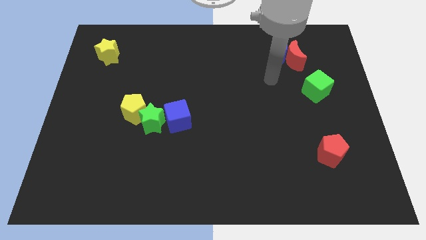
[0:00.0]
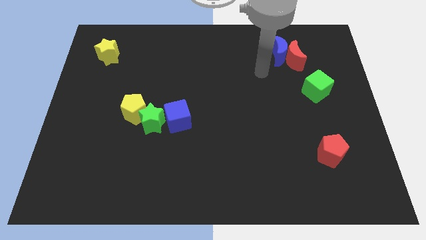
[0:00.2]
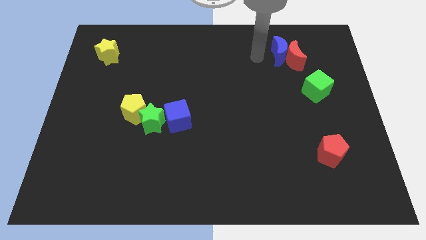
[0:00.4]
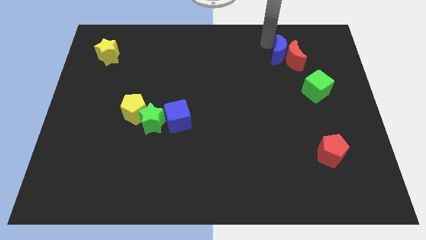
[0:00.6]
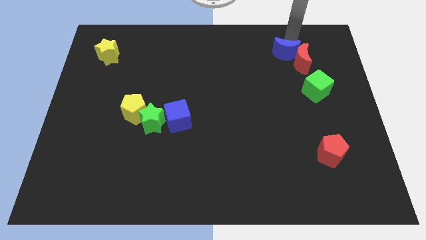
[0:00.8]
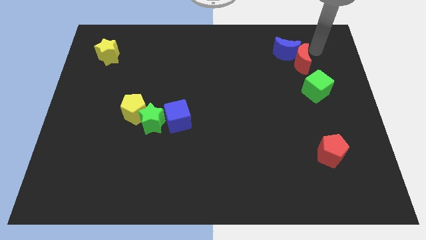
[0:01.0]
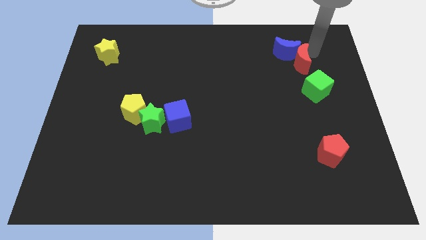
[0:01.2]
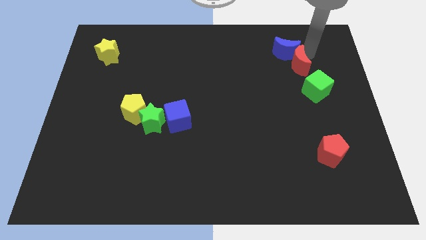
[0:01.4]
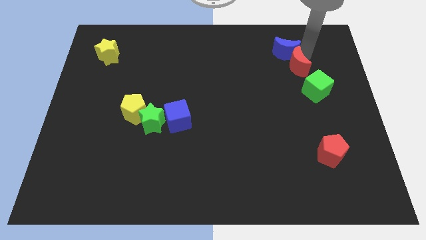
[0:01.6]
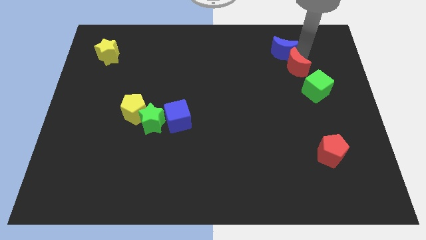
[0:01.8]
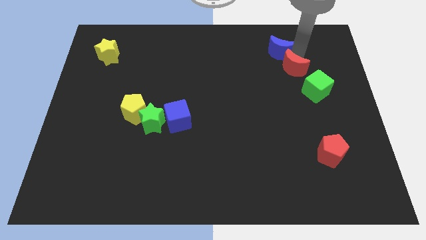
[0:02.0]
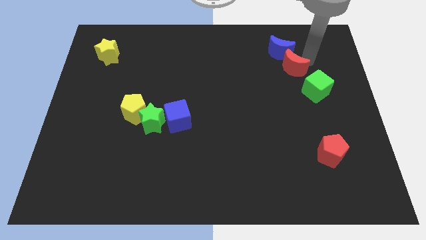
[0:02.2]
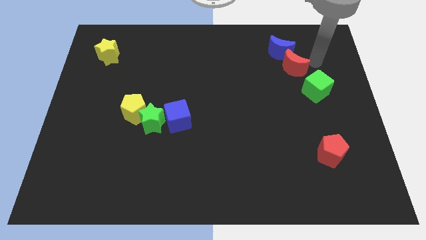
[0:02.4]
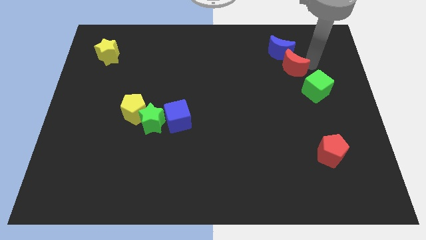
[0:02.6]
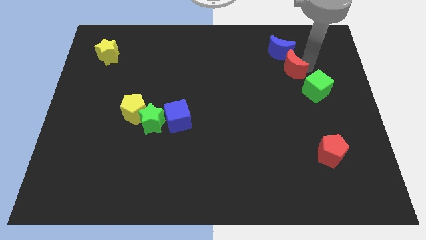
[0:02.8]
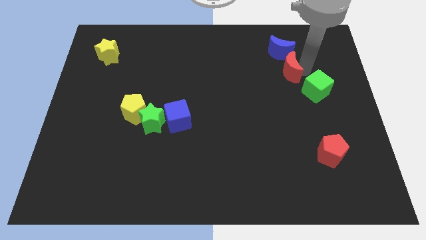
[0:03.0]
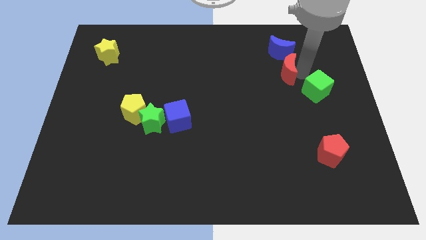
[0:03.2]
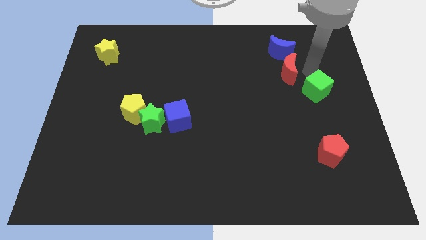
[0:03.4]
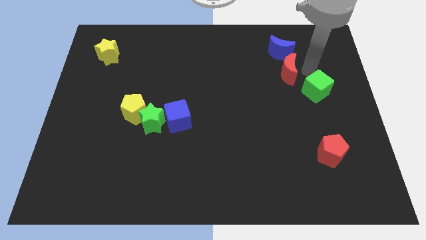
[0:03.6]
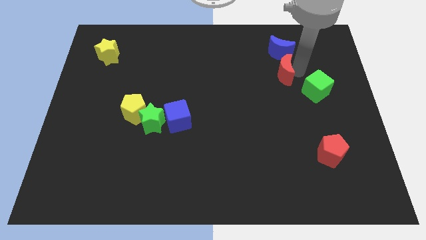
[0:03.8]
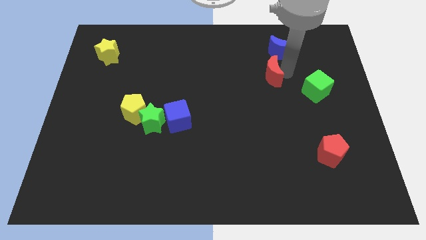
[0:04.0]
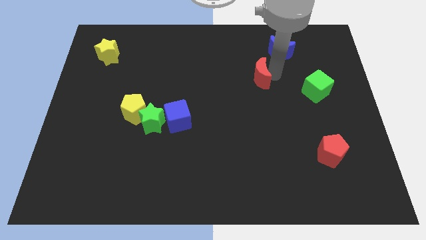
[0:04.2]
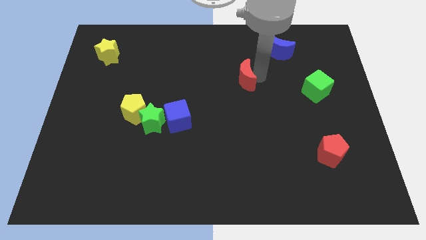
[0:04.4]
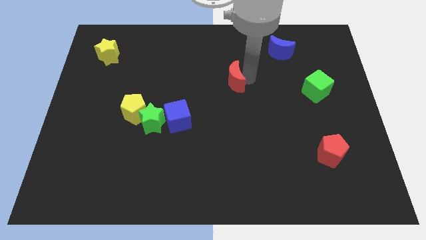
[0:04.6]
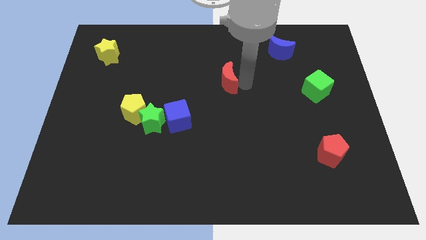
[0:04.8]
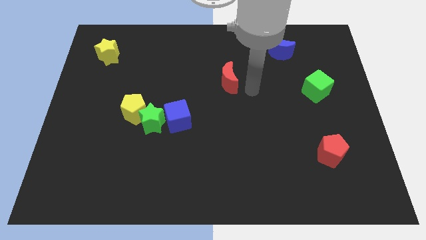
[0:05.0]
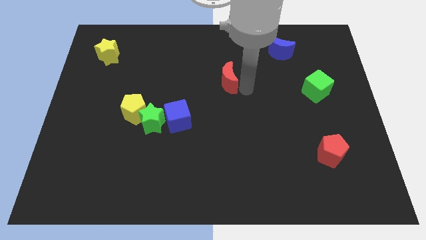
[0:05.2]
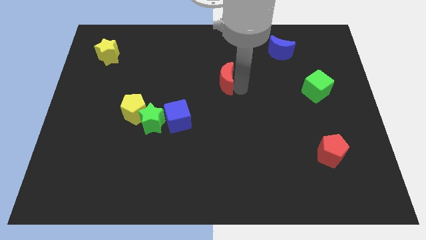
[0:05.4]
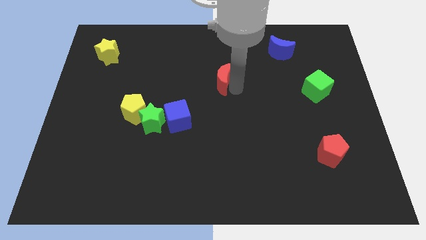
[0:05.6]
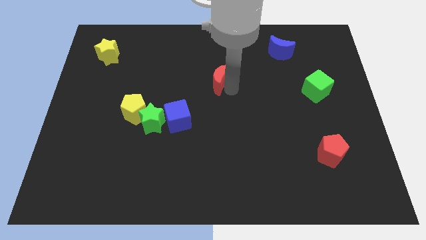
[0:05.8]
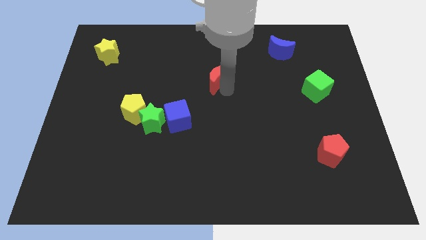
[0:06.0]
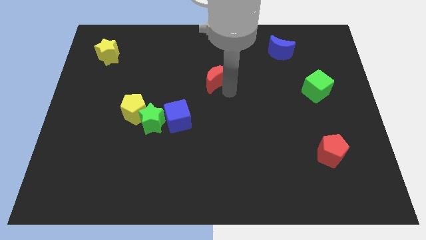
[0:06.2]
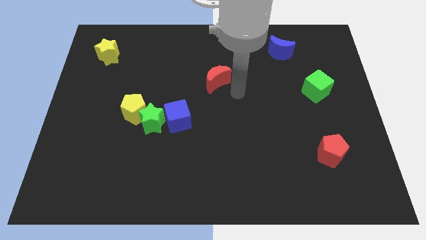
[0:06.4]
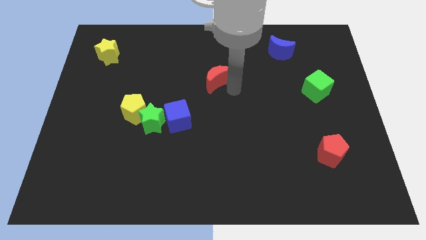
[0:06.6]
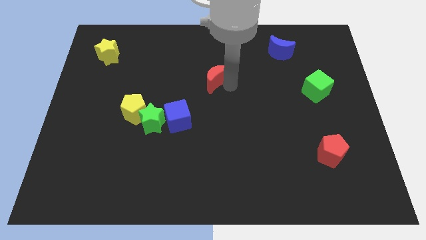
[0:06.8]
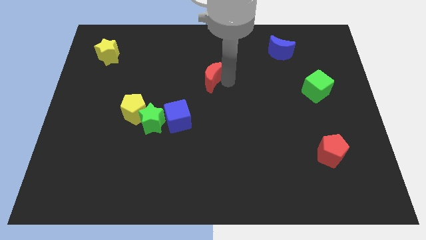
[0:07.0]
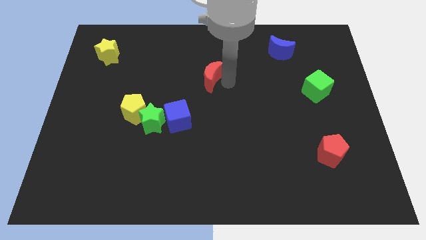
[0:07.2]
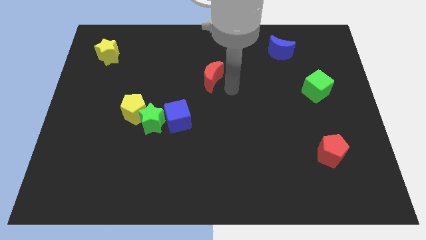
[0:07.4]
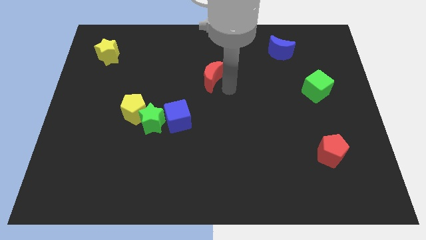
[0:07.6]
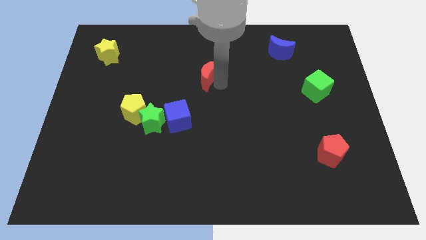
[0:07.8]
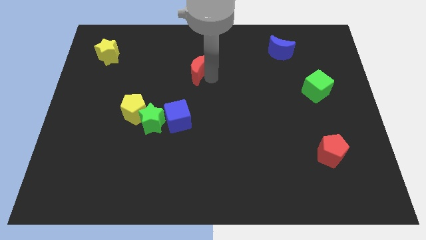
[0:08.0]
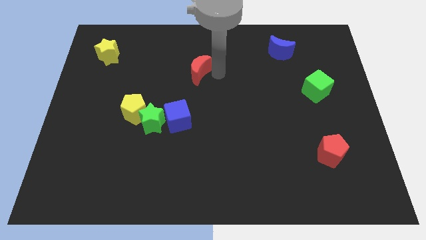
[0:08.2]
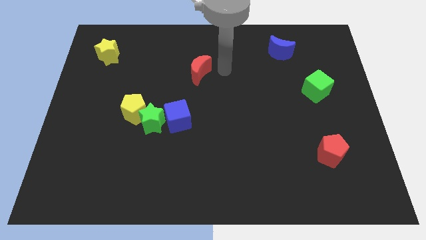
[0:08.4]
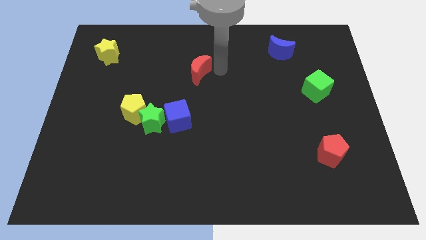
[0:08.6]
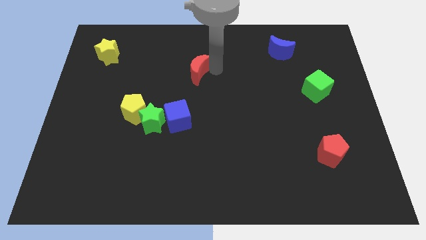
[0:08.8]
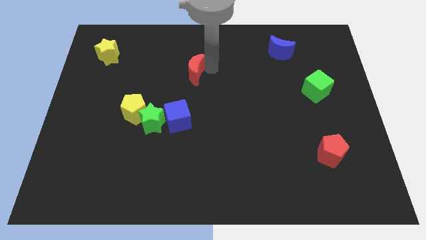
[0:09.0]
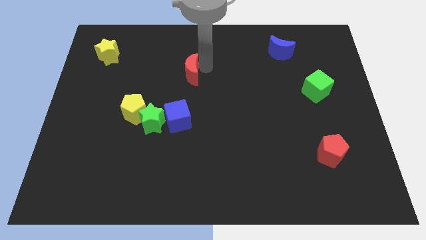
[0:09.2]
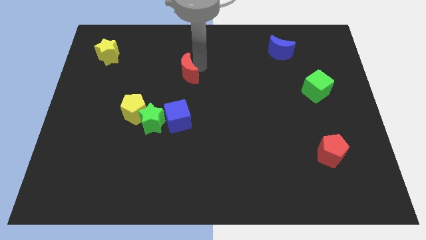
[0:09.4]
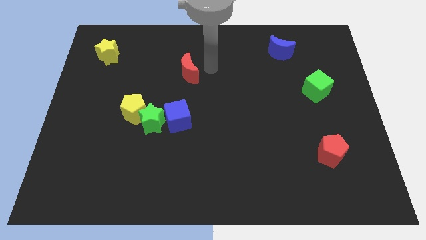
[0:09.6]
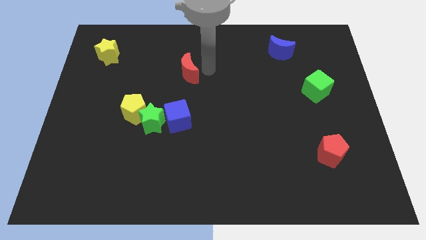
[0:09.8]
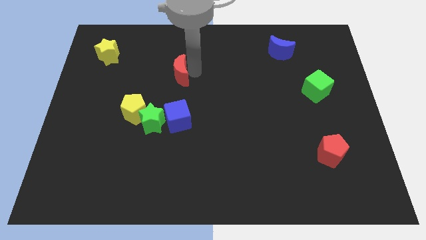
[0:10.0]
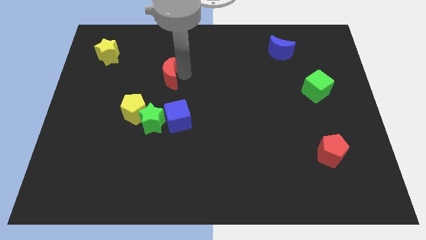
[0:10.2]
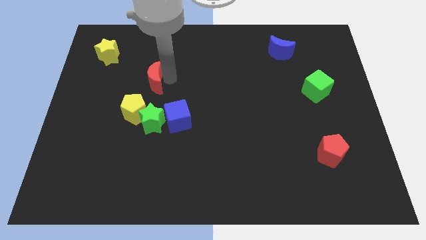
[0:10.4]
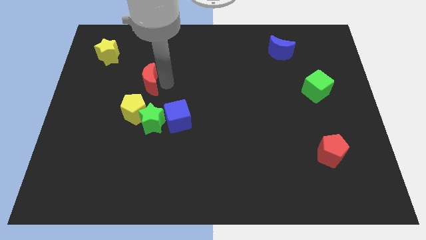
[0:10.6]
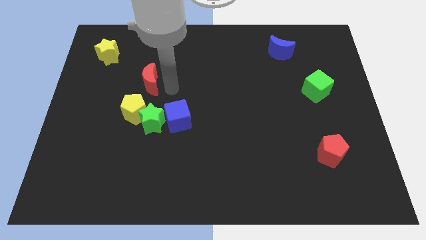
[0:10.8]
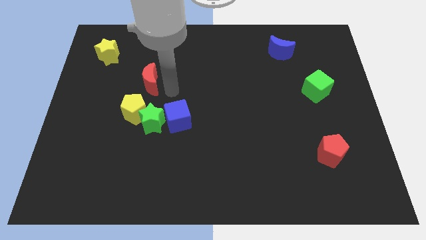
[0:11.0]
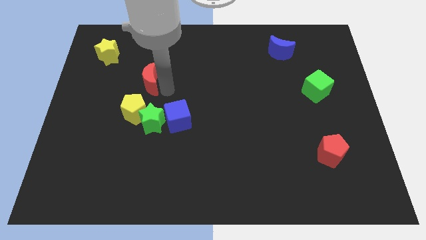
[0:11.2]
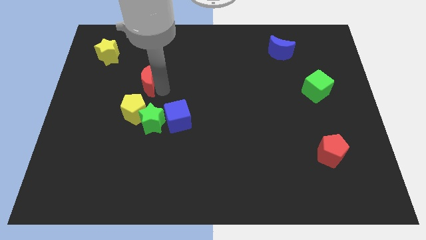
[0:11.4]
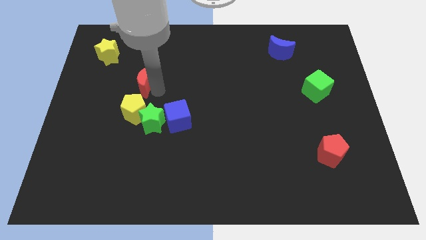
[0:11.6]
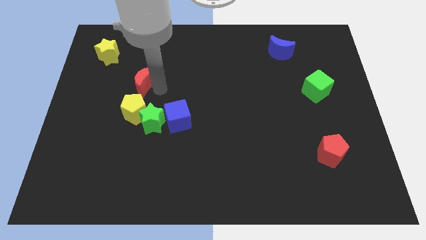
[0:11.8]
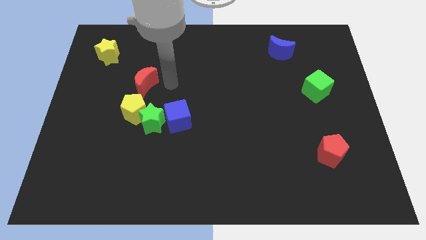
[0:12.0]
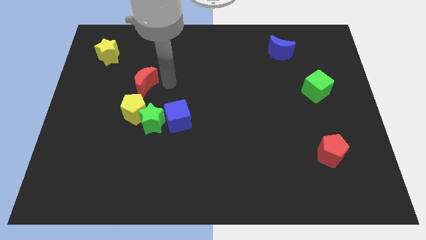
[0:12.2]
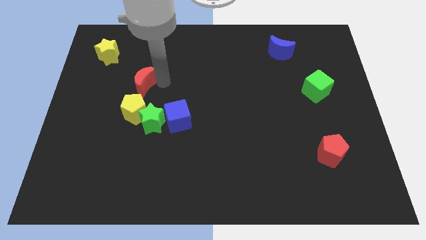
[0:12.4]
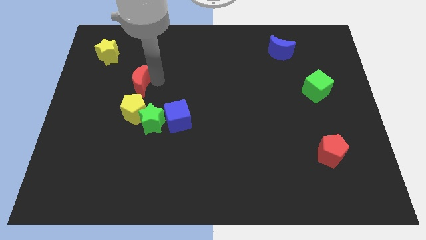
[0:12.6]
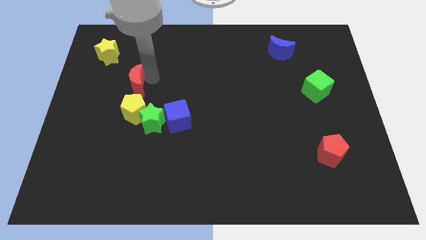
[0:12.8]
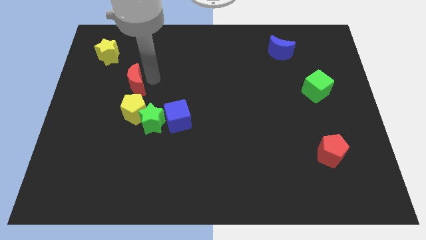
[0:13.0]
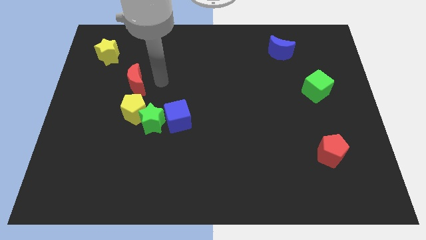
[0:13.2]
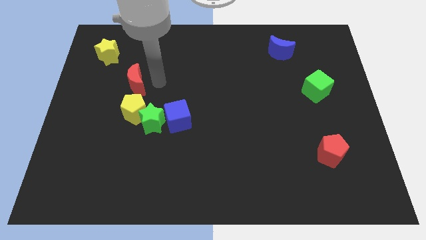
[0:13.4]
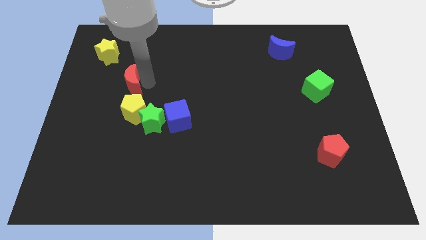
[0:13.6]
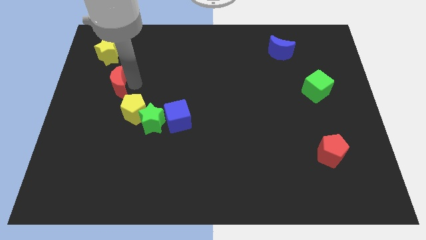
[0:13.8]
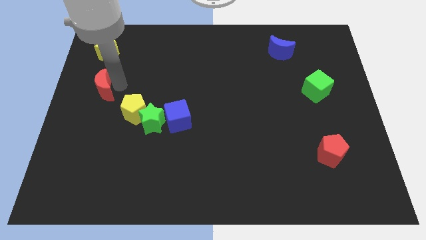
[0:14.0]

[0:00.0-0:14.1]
slide the red moon to the left side of the board
